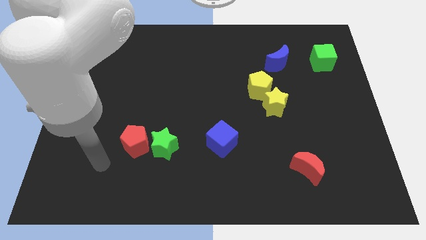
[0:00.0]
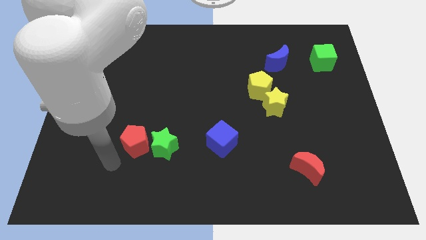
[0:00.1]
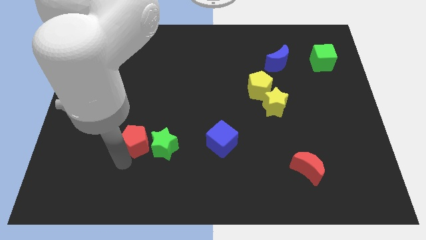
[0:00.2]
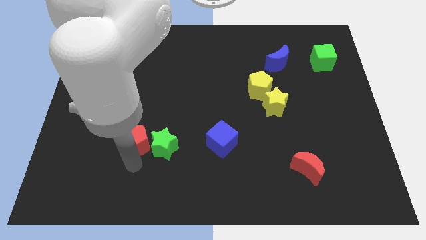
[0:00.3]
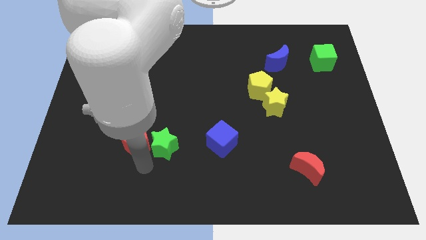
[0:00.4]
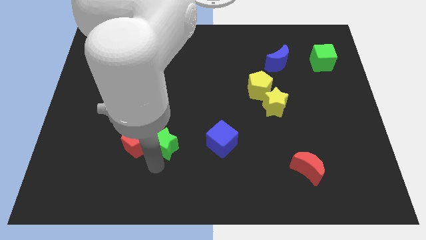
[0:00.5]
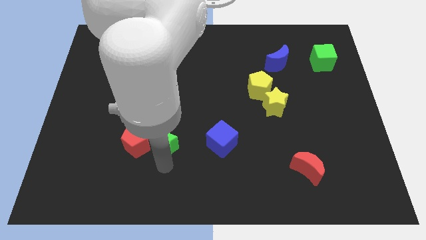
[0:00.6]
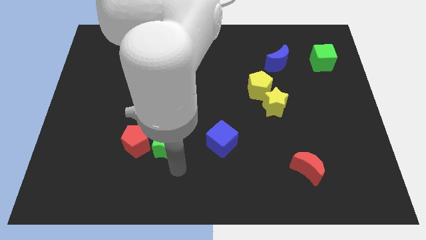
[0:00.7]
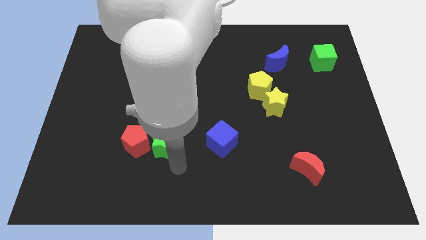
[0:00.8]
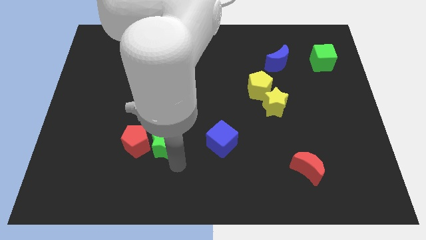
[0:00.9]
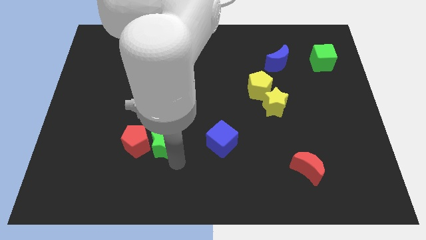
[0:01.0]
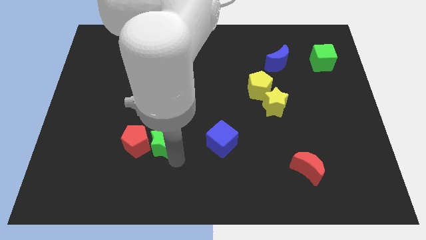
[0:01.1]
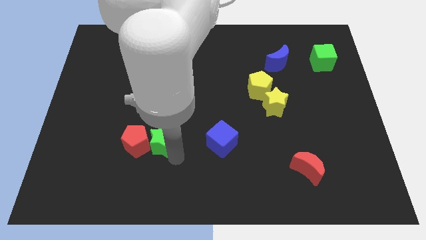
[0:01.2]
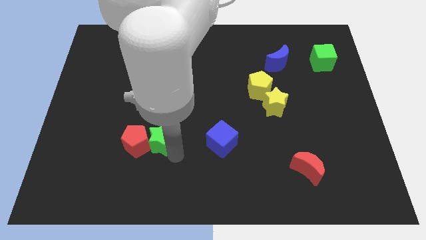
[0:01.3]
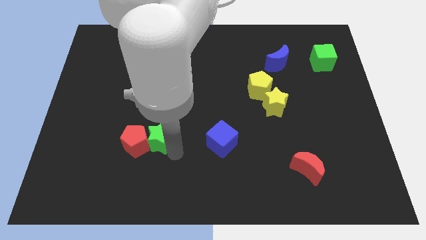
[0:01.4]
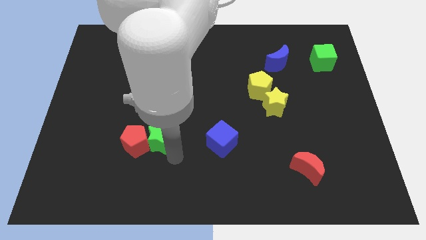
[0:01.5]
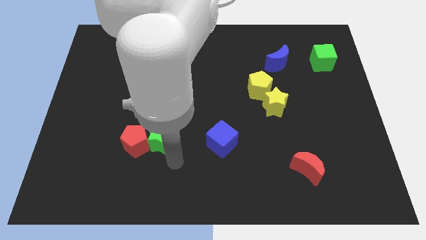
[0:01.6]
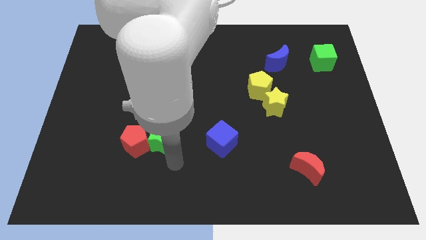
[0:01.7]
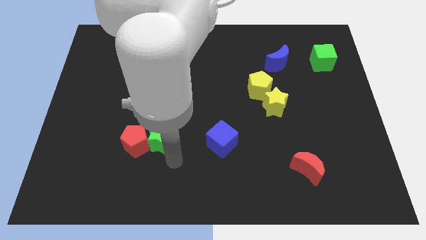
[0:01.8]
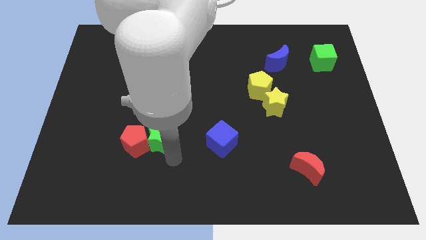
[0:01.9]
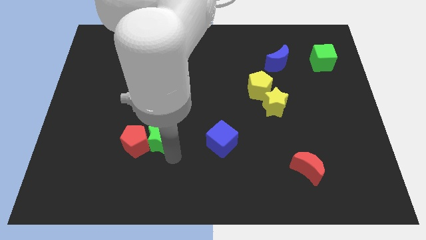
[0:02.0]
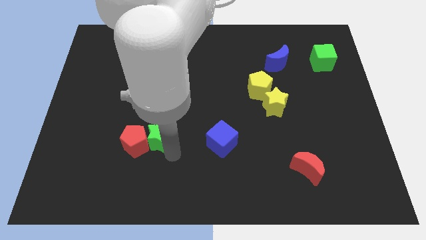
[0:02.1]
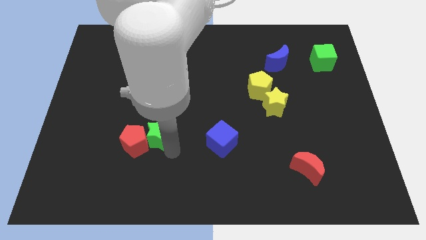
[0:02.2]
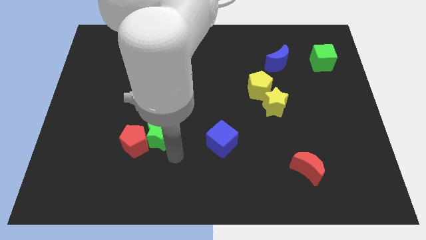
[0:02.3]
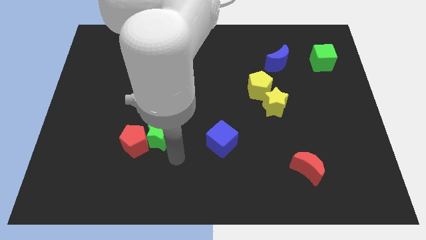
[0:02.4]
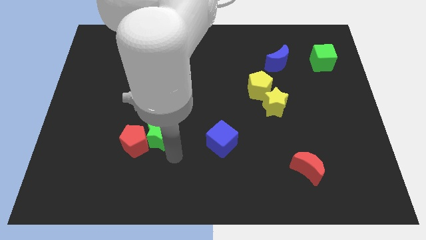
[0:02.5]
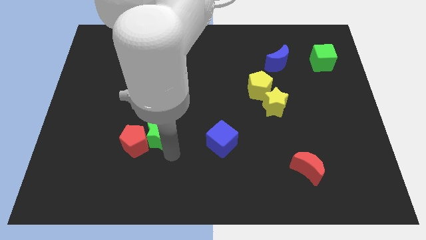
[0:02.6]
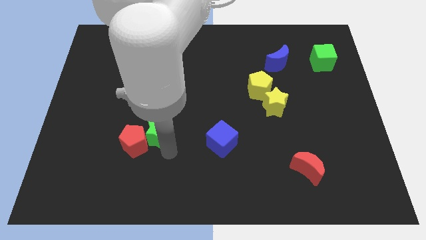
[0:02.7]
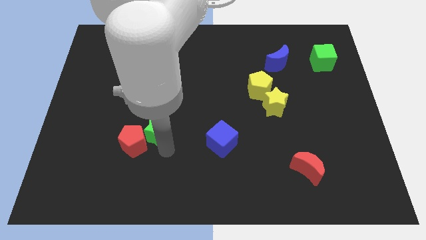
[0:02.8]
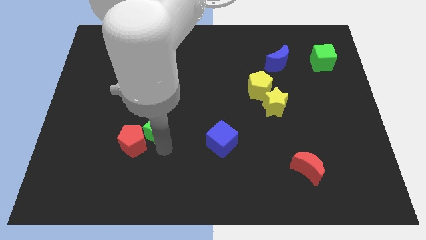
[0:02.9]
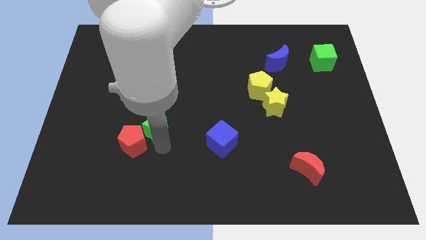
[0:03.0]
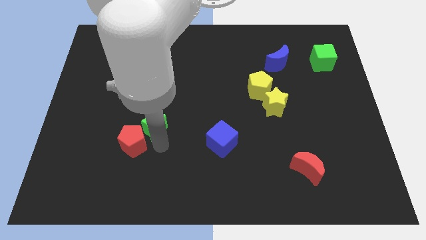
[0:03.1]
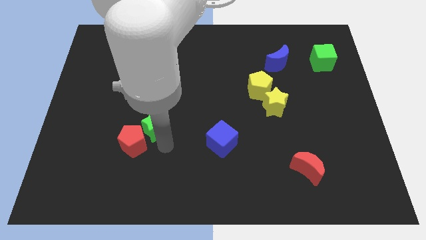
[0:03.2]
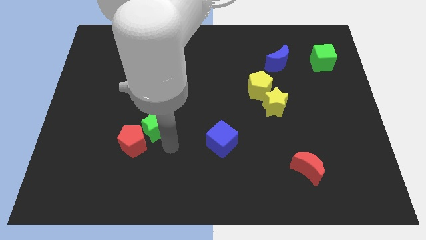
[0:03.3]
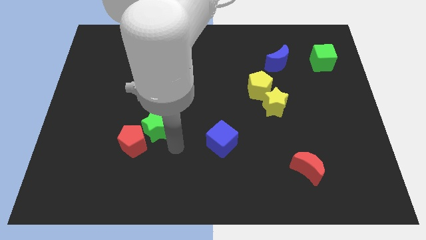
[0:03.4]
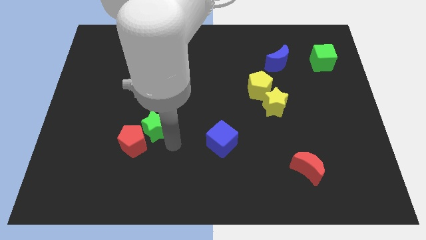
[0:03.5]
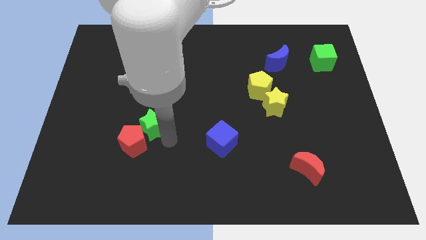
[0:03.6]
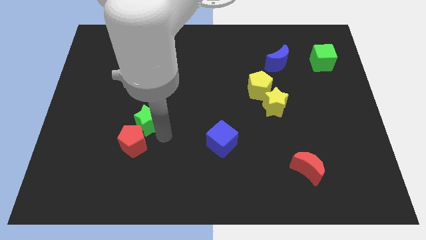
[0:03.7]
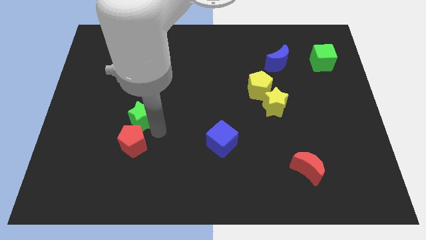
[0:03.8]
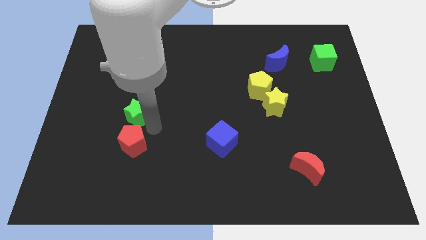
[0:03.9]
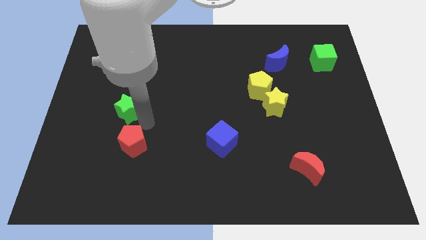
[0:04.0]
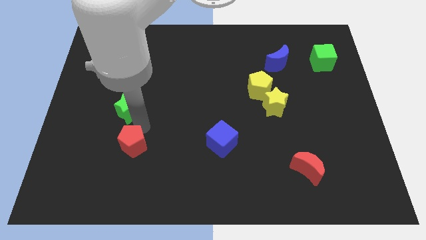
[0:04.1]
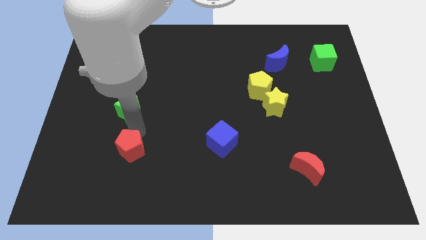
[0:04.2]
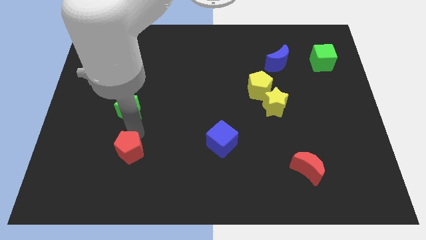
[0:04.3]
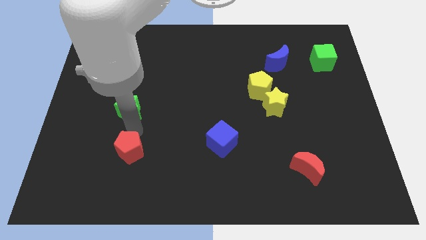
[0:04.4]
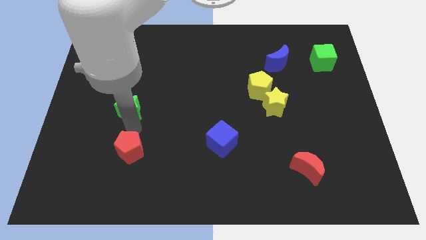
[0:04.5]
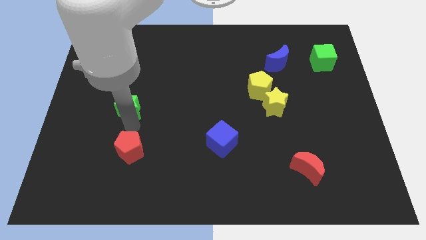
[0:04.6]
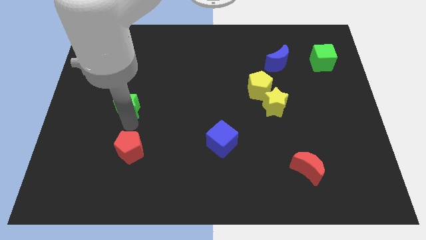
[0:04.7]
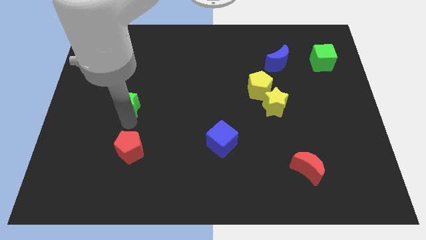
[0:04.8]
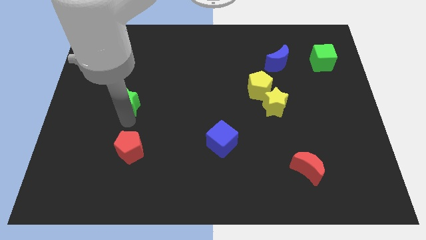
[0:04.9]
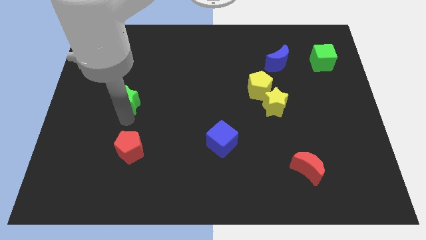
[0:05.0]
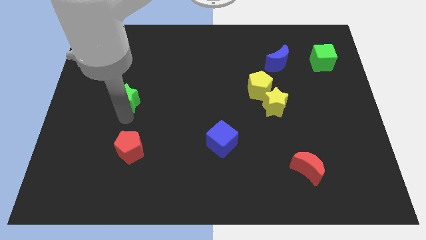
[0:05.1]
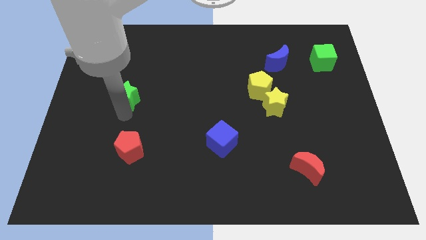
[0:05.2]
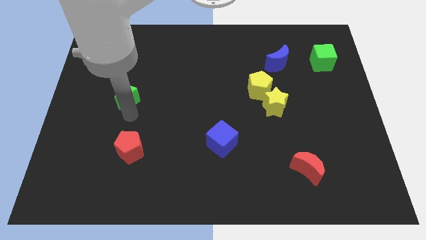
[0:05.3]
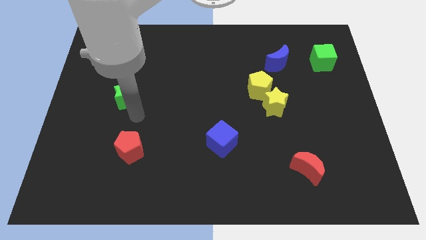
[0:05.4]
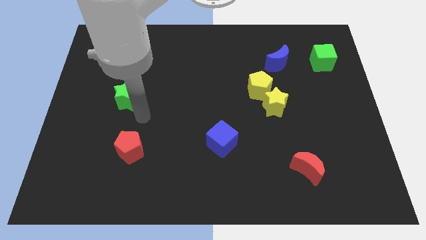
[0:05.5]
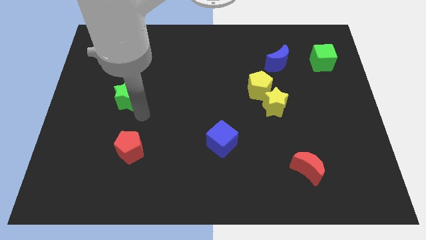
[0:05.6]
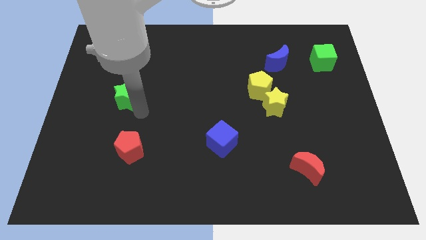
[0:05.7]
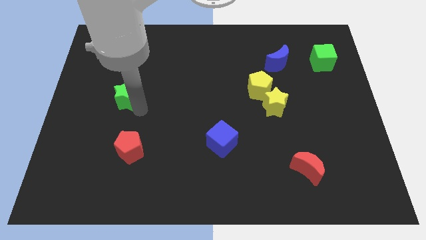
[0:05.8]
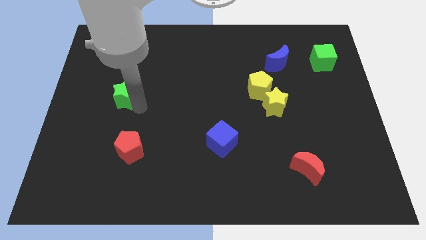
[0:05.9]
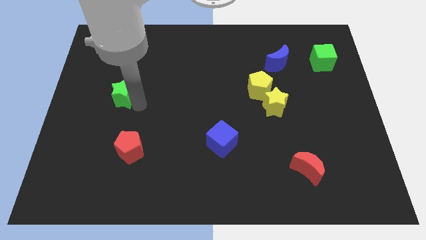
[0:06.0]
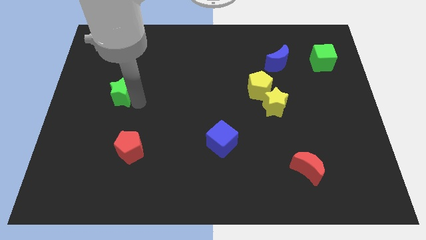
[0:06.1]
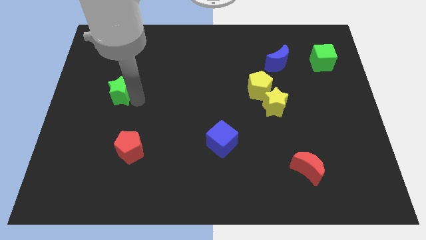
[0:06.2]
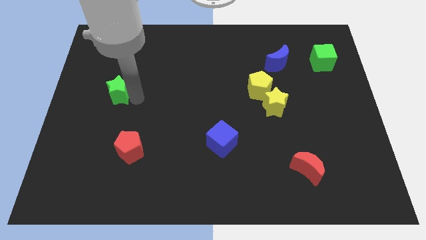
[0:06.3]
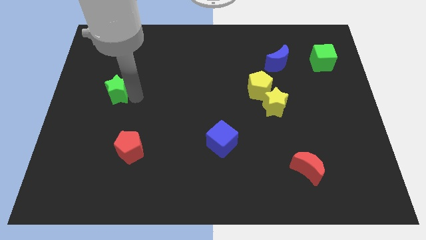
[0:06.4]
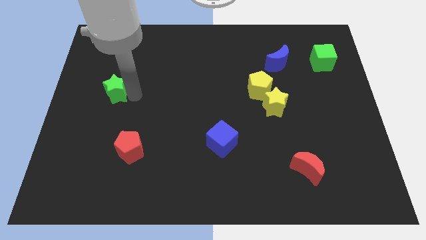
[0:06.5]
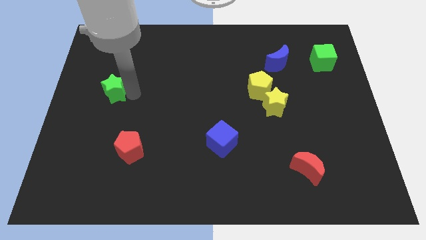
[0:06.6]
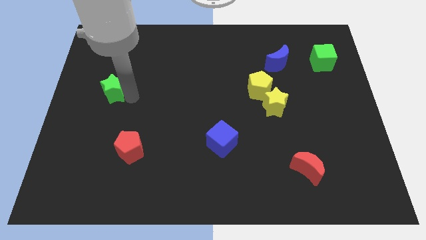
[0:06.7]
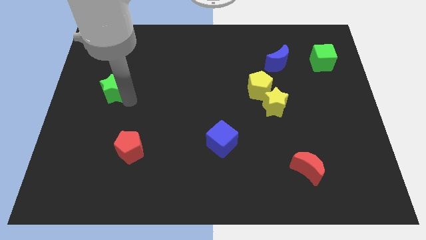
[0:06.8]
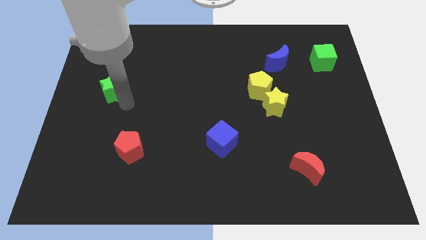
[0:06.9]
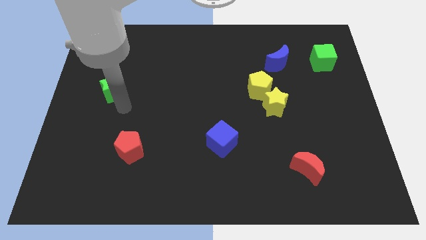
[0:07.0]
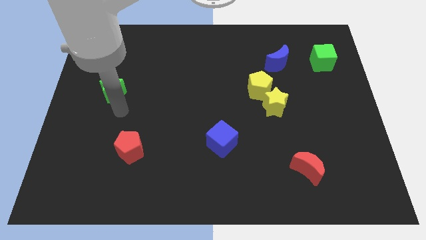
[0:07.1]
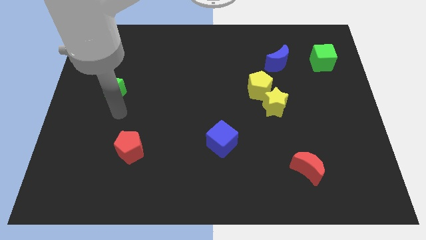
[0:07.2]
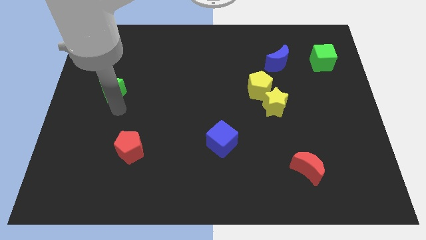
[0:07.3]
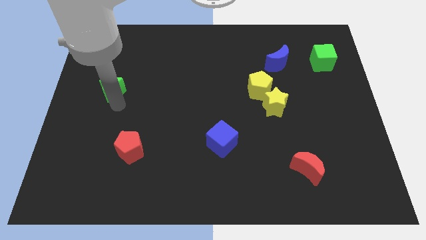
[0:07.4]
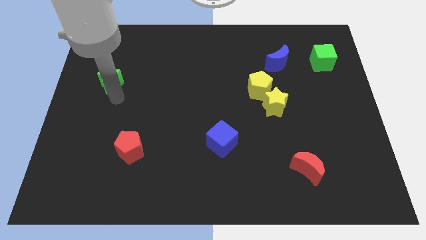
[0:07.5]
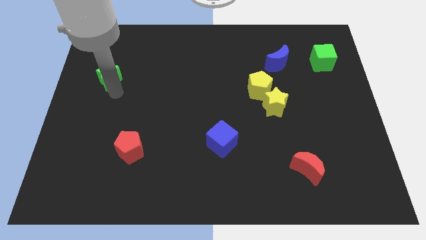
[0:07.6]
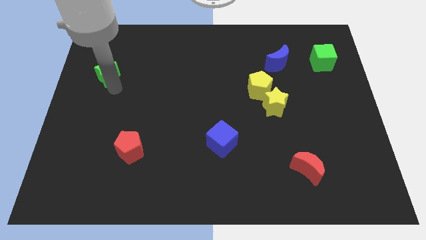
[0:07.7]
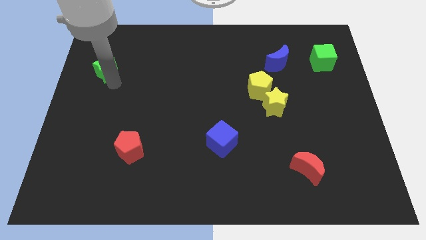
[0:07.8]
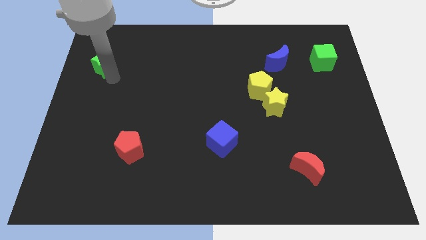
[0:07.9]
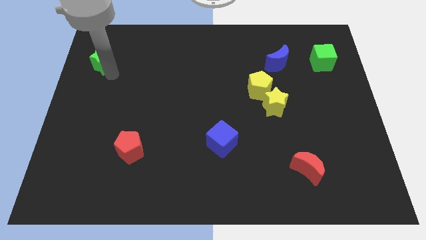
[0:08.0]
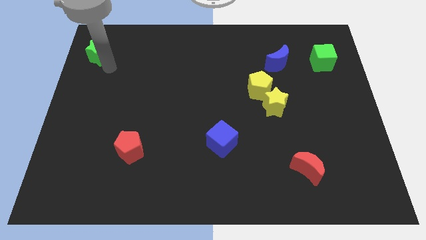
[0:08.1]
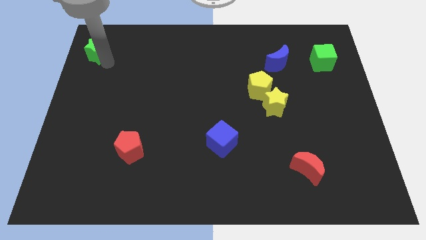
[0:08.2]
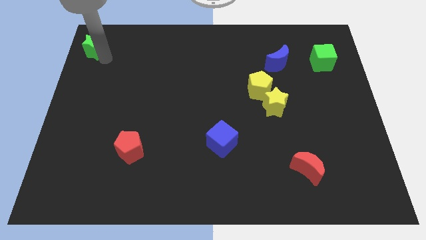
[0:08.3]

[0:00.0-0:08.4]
put the green star to the top left
